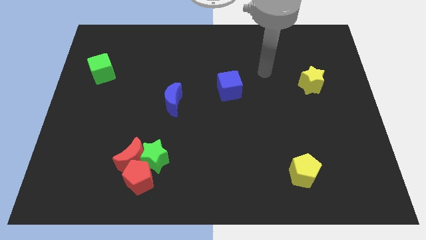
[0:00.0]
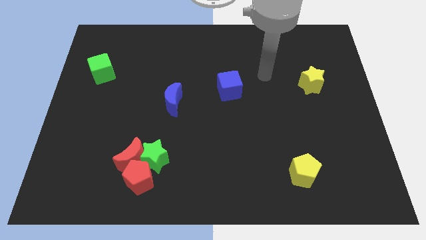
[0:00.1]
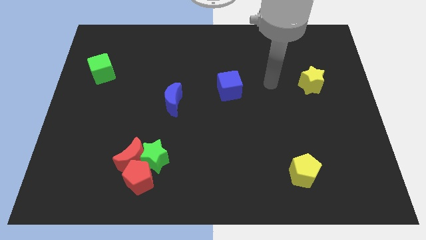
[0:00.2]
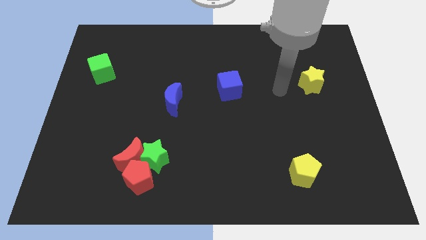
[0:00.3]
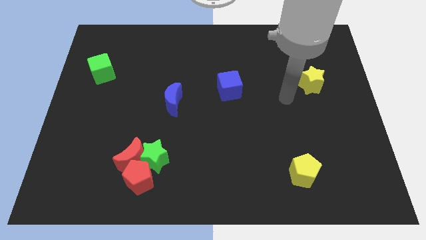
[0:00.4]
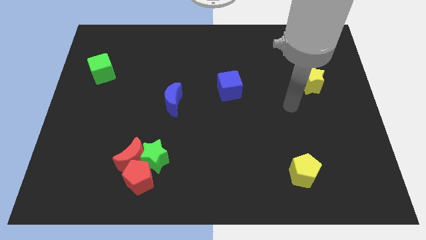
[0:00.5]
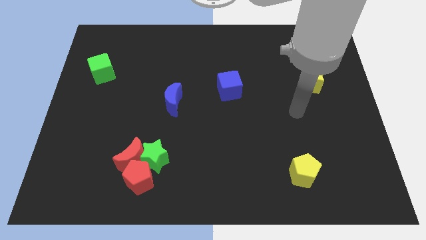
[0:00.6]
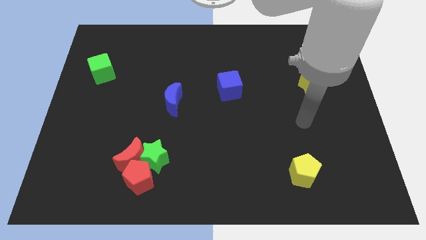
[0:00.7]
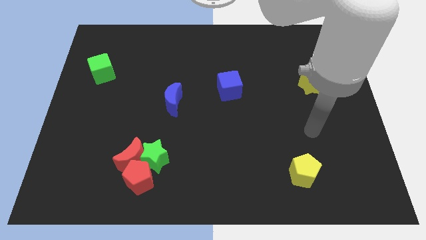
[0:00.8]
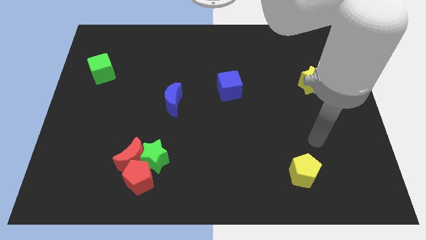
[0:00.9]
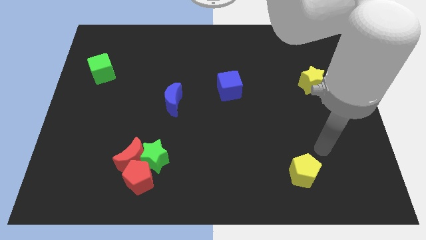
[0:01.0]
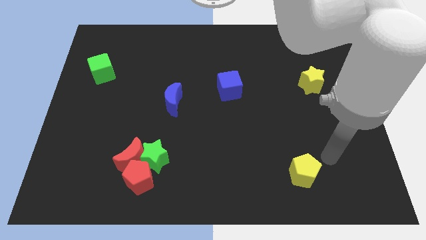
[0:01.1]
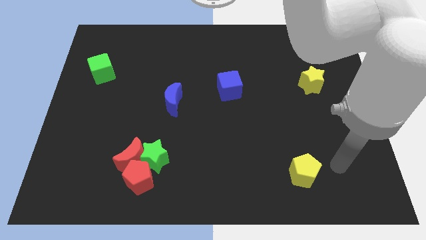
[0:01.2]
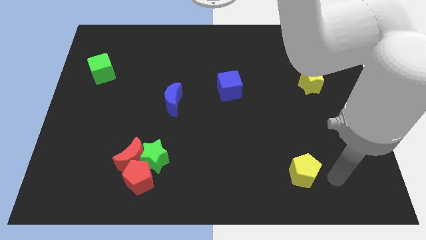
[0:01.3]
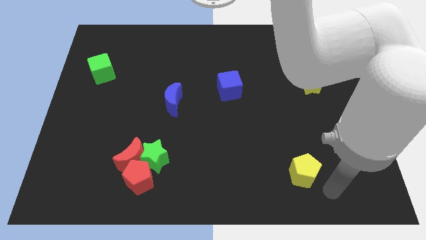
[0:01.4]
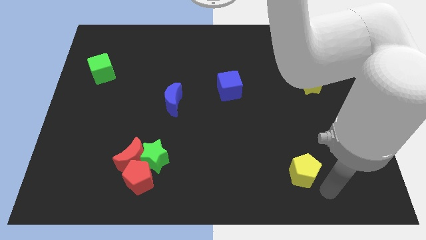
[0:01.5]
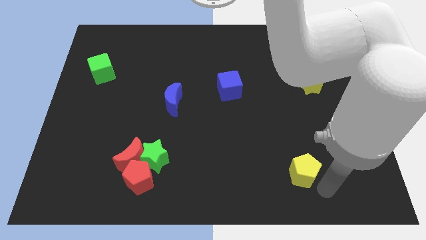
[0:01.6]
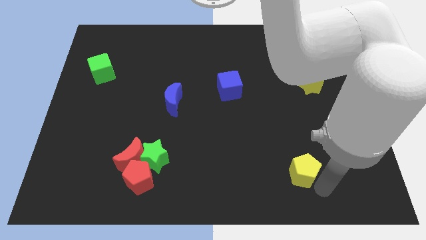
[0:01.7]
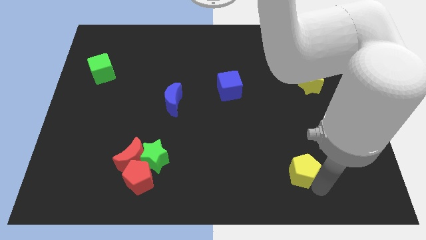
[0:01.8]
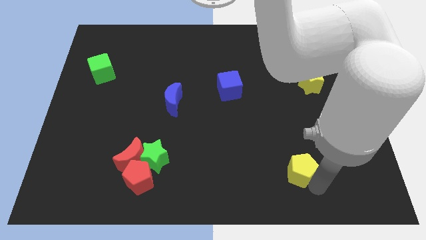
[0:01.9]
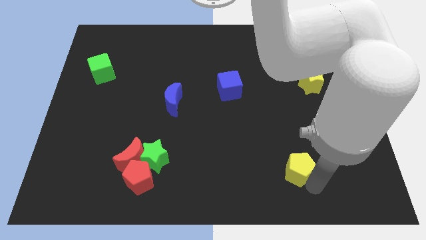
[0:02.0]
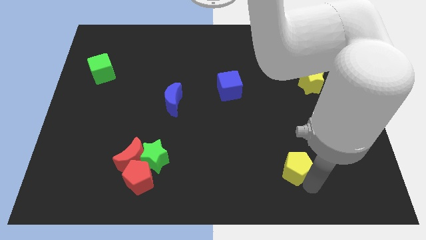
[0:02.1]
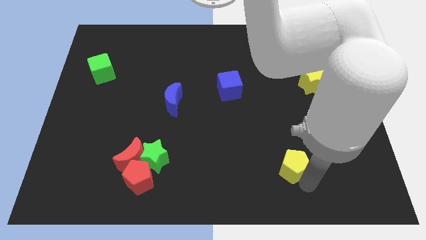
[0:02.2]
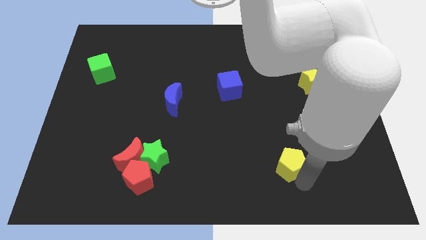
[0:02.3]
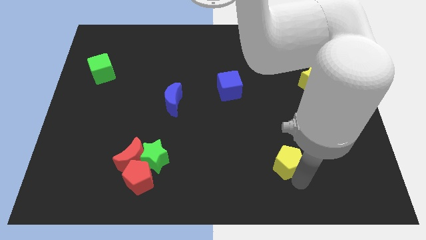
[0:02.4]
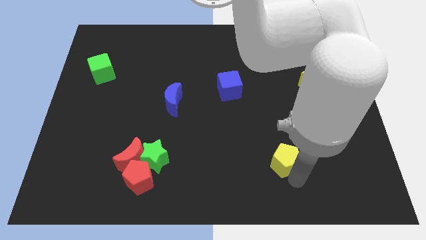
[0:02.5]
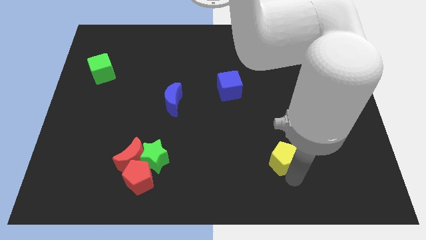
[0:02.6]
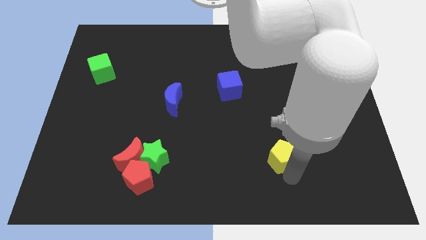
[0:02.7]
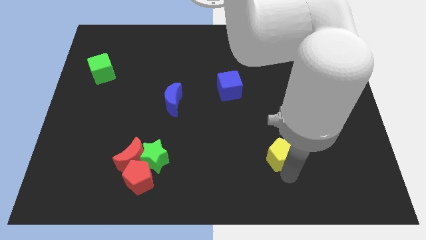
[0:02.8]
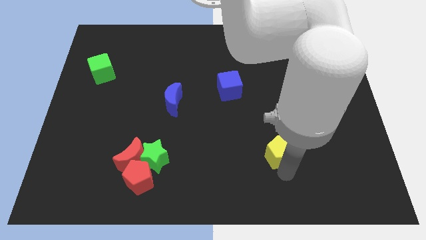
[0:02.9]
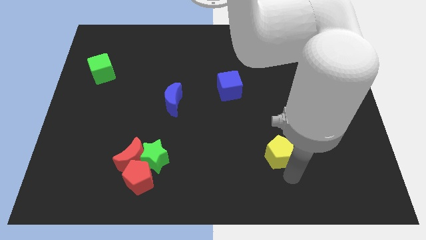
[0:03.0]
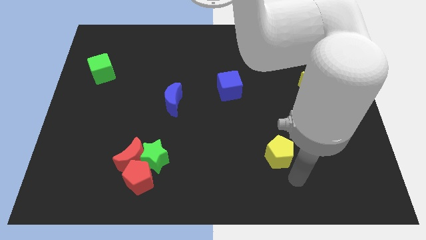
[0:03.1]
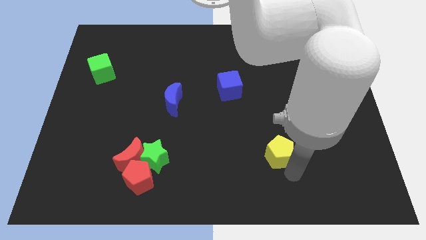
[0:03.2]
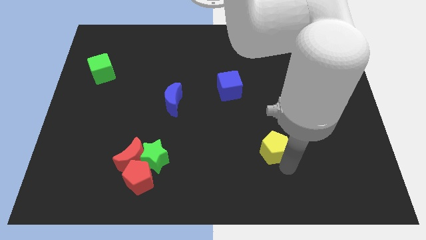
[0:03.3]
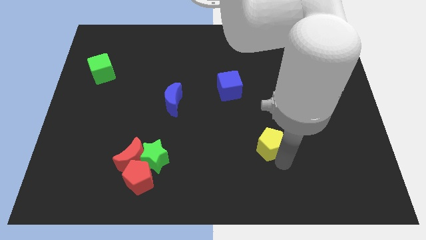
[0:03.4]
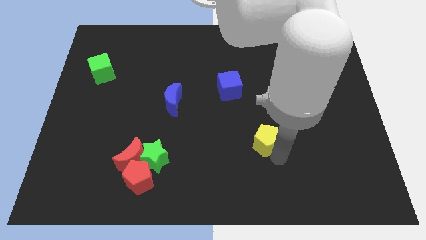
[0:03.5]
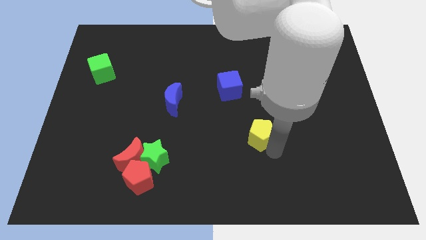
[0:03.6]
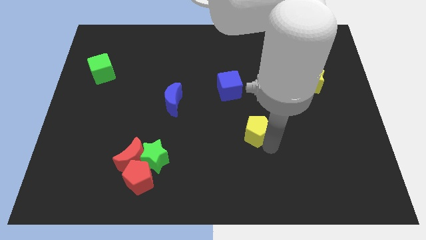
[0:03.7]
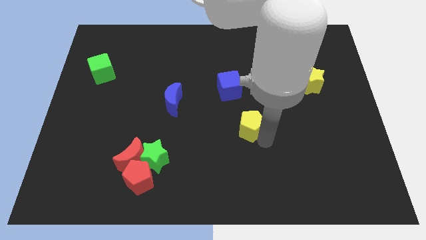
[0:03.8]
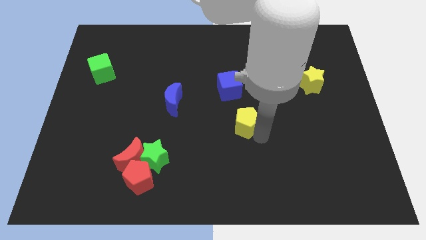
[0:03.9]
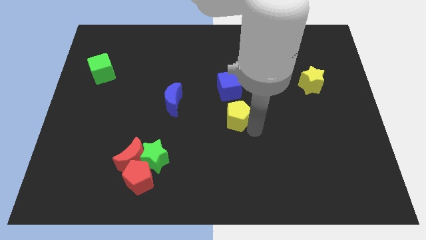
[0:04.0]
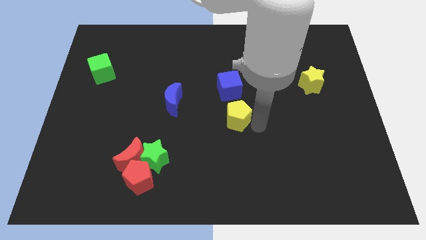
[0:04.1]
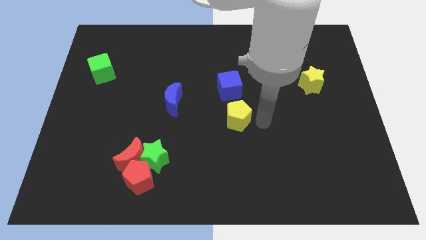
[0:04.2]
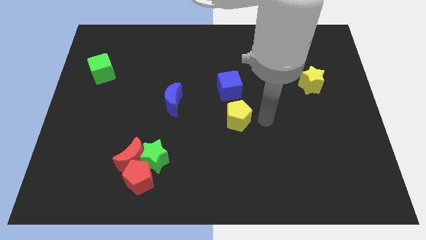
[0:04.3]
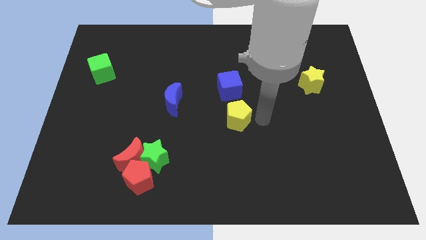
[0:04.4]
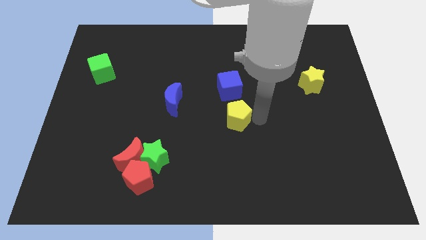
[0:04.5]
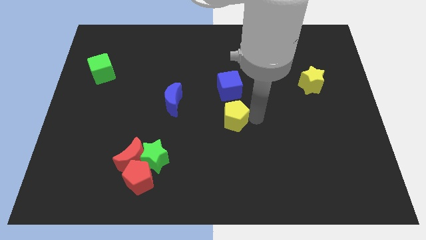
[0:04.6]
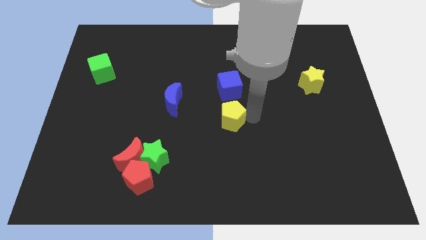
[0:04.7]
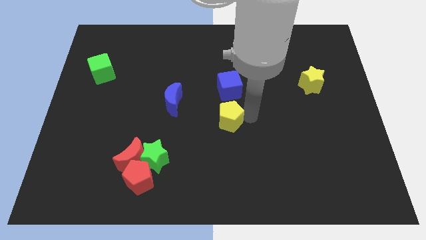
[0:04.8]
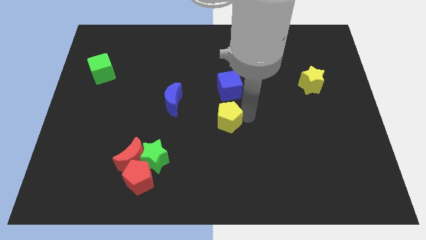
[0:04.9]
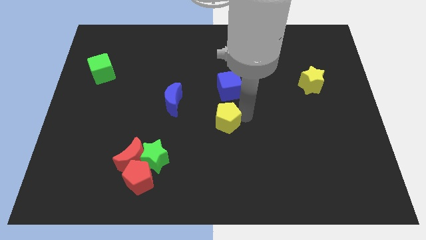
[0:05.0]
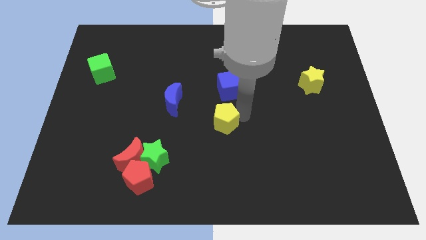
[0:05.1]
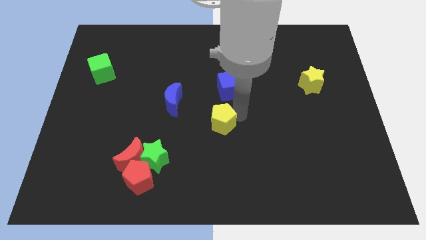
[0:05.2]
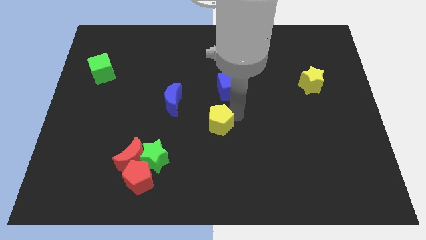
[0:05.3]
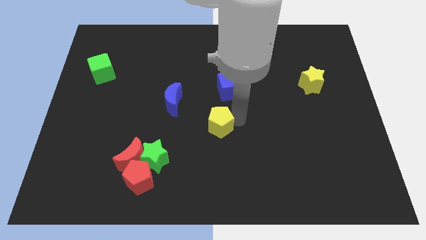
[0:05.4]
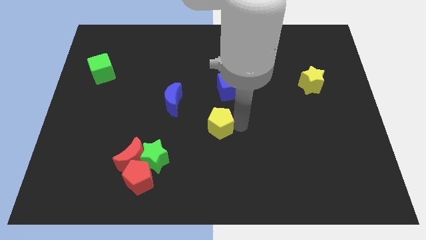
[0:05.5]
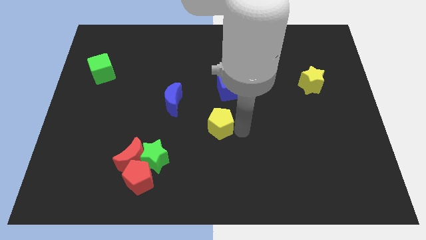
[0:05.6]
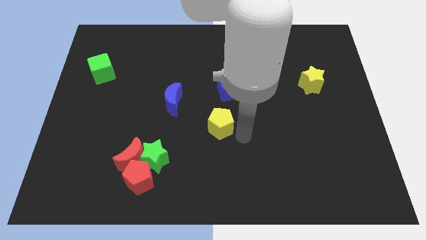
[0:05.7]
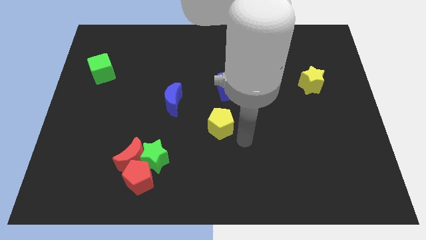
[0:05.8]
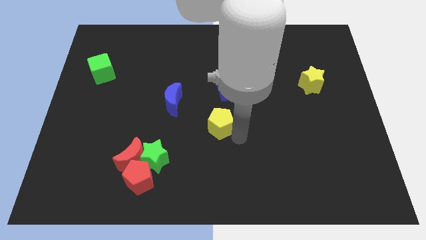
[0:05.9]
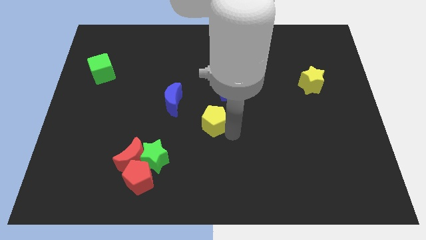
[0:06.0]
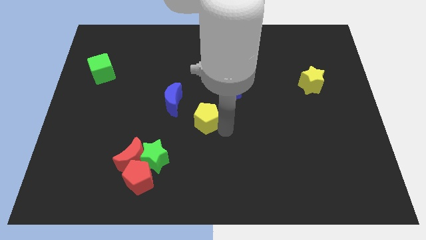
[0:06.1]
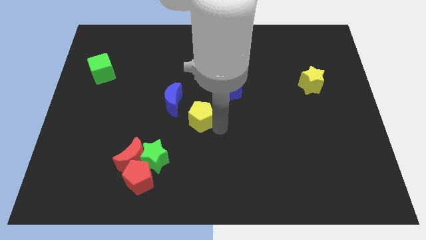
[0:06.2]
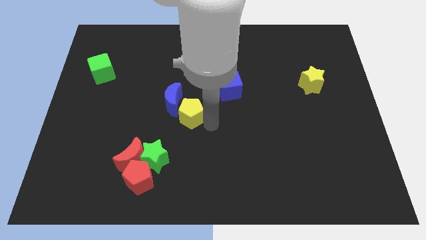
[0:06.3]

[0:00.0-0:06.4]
push the yellow pentagon to the blue moon

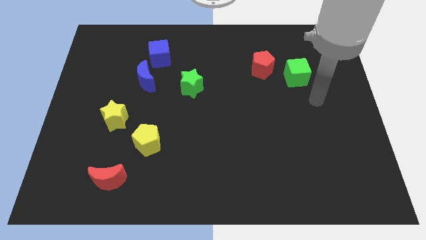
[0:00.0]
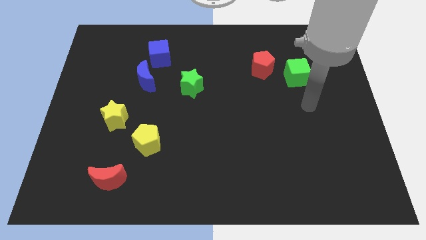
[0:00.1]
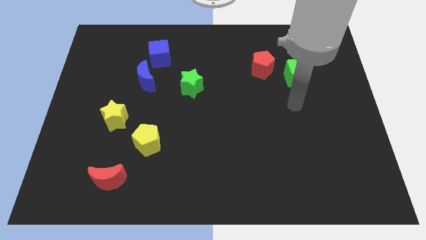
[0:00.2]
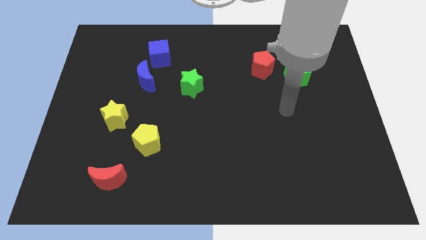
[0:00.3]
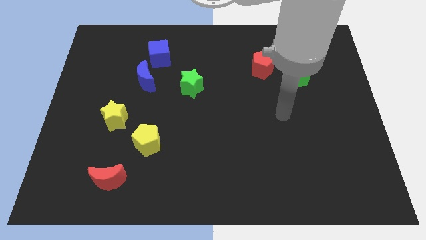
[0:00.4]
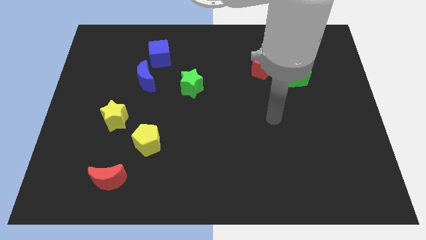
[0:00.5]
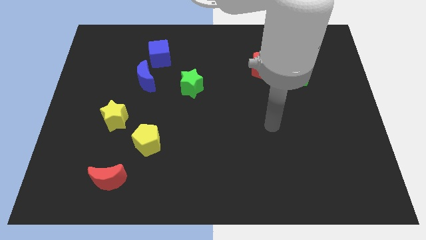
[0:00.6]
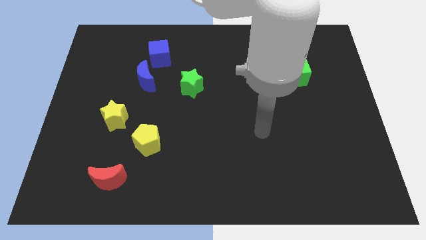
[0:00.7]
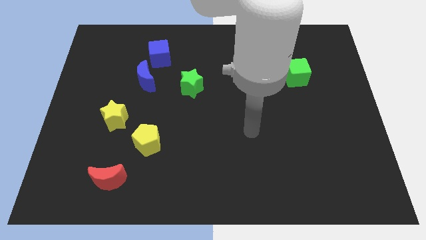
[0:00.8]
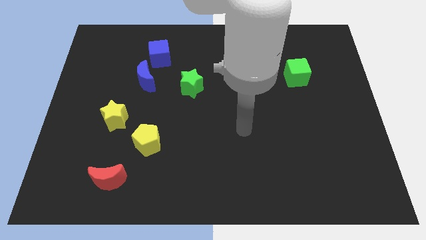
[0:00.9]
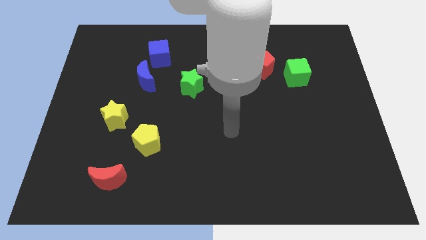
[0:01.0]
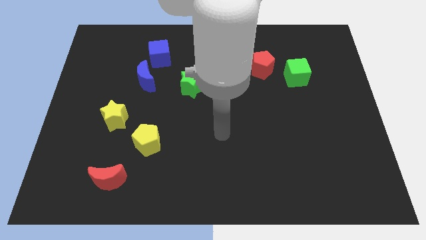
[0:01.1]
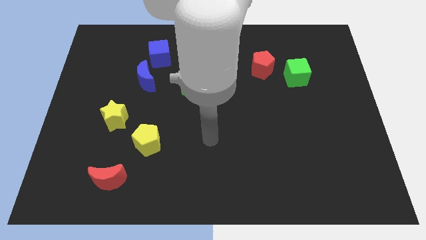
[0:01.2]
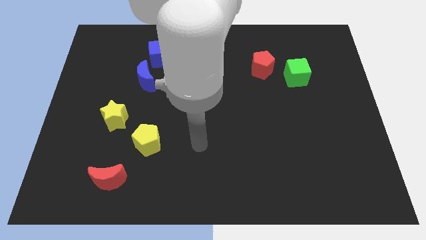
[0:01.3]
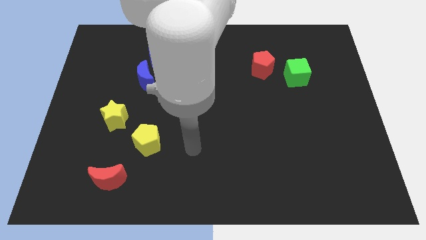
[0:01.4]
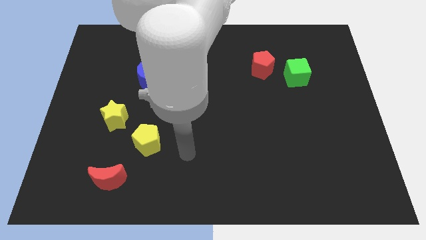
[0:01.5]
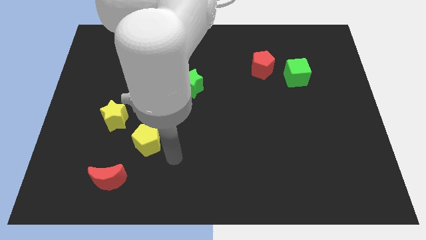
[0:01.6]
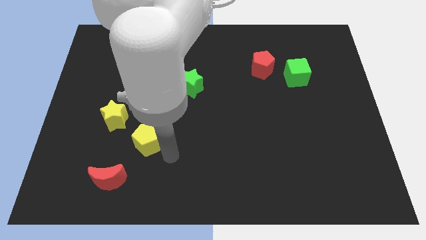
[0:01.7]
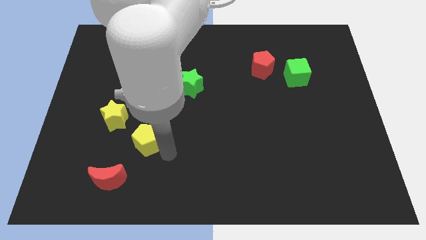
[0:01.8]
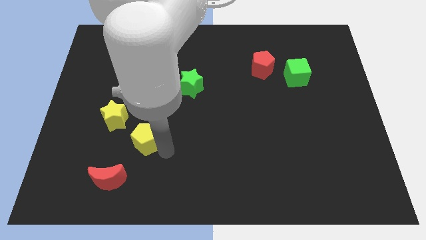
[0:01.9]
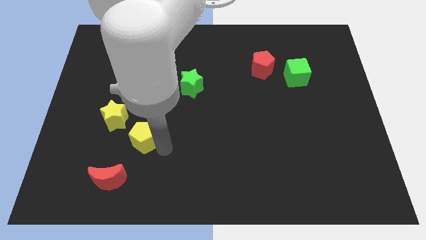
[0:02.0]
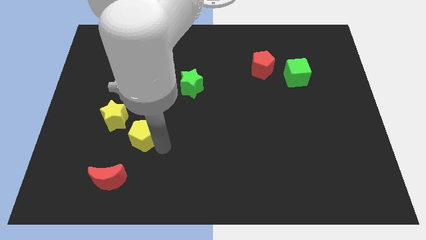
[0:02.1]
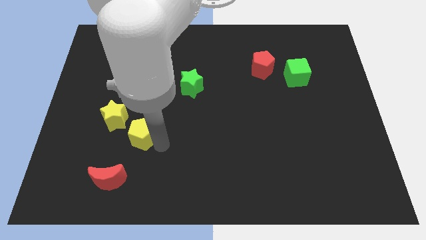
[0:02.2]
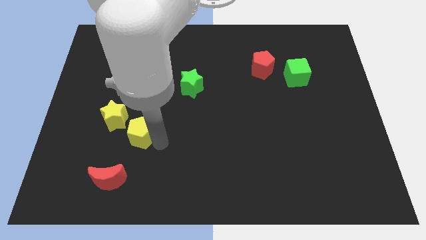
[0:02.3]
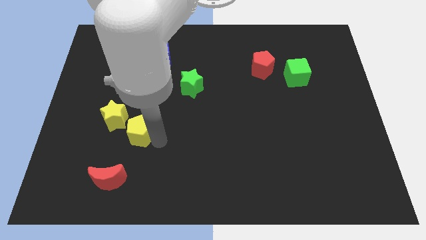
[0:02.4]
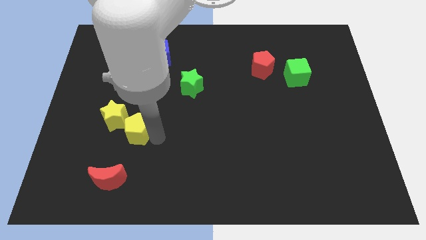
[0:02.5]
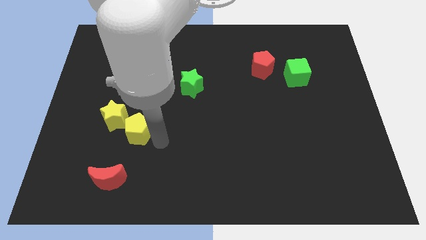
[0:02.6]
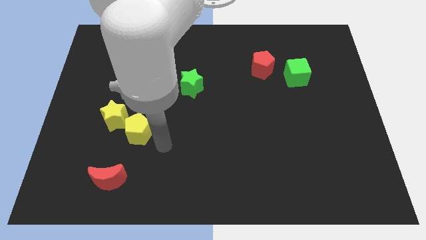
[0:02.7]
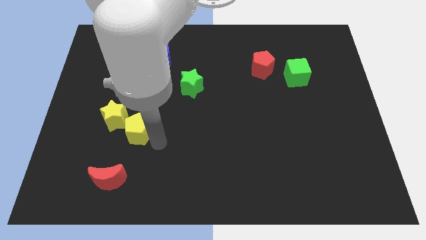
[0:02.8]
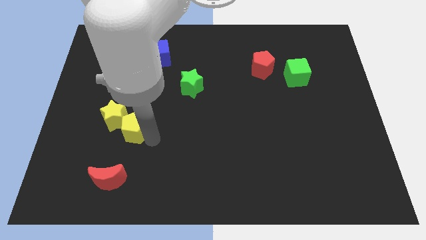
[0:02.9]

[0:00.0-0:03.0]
move the yellow pentagon next to the yellow star
